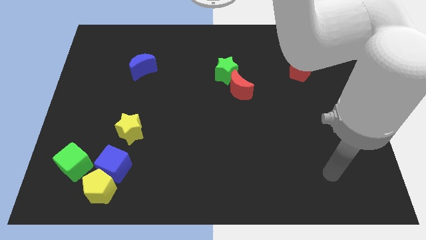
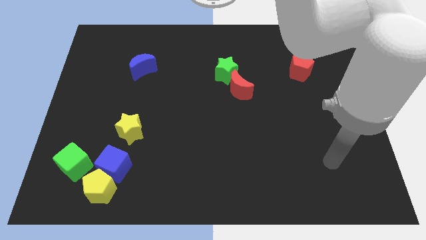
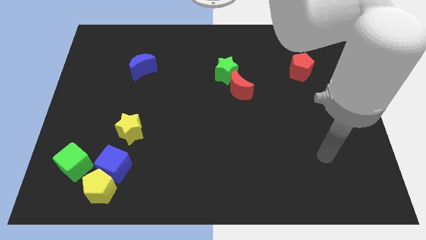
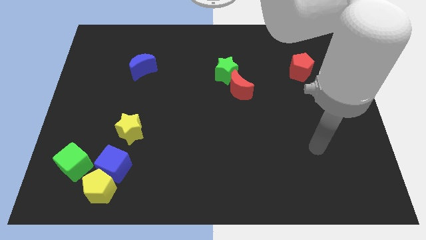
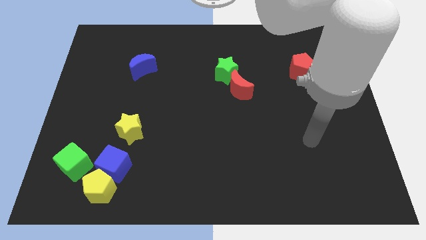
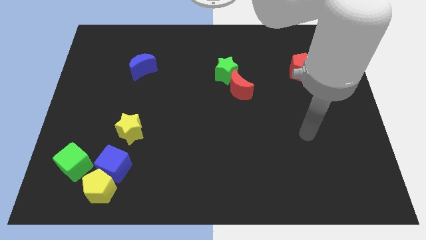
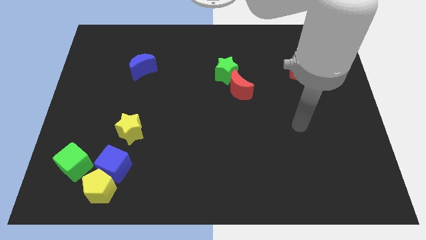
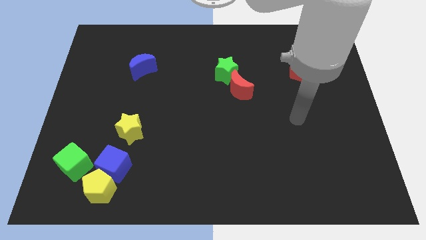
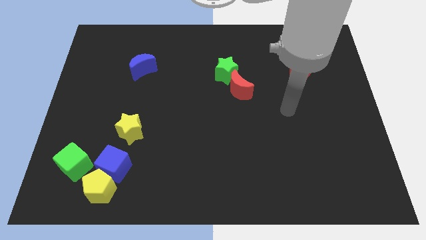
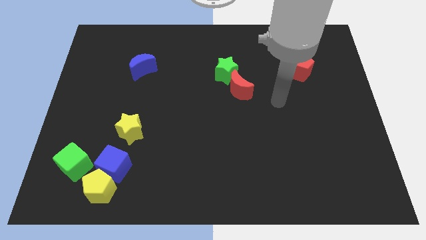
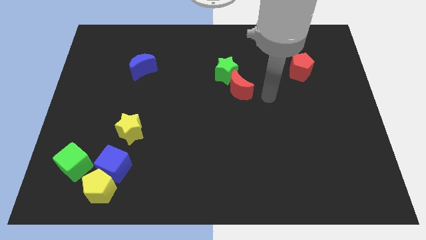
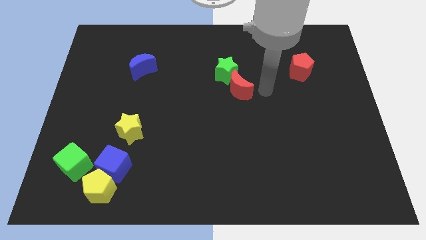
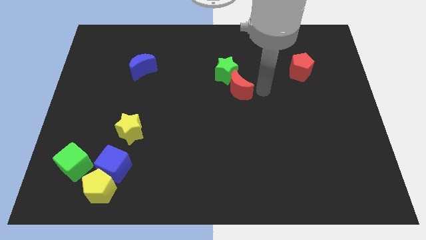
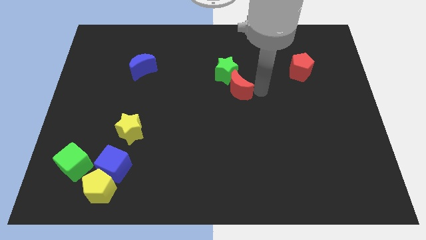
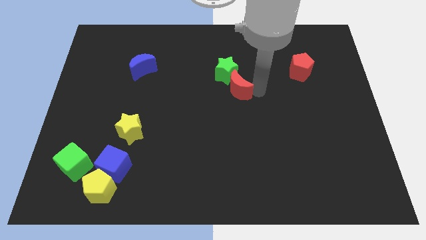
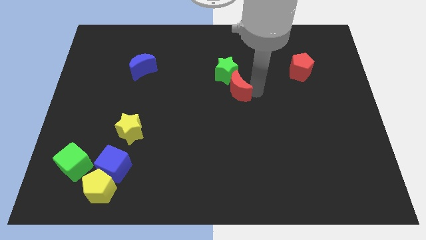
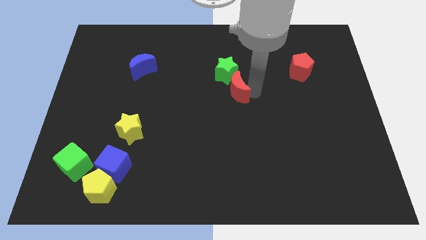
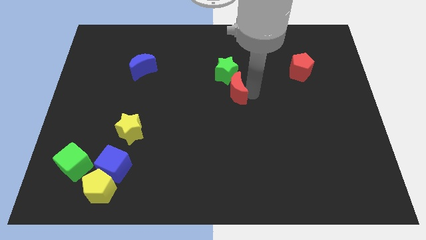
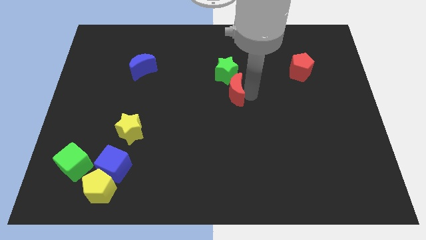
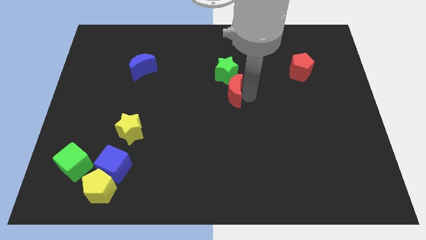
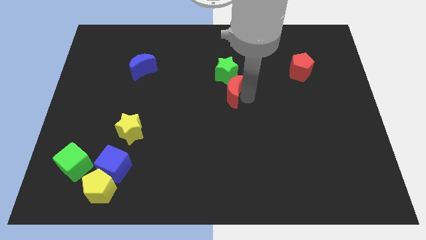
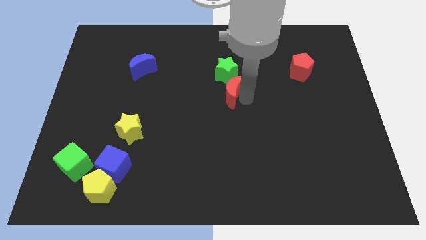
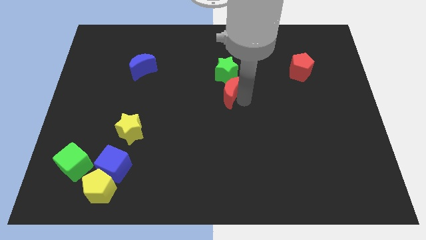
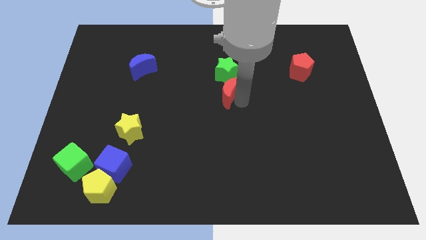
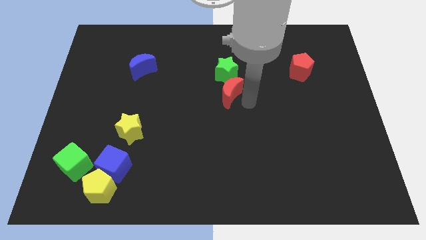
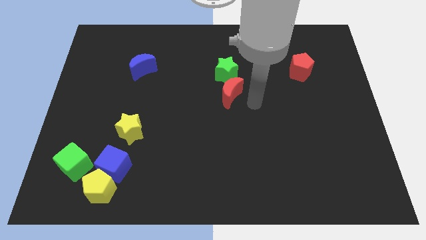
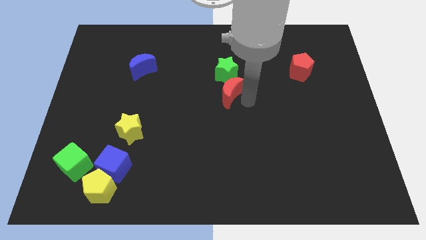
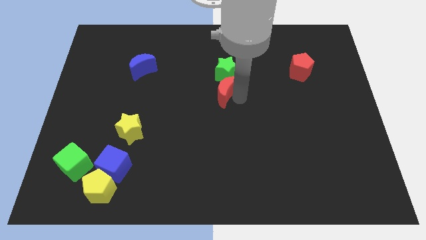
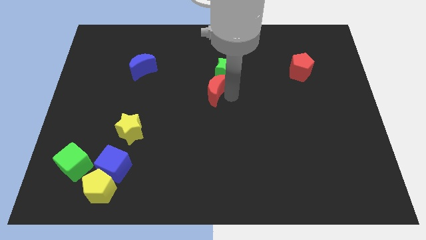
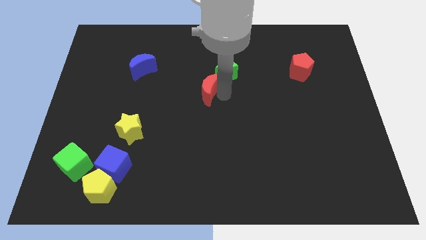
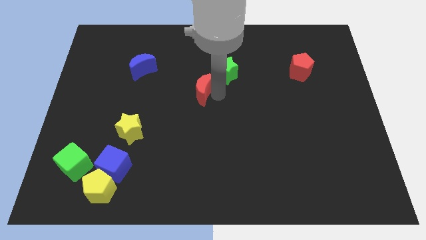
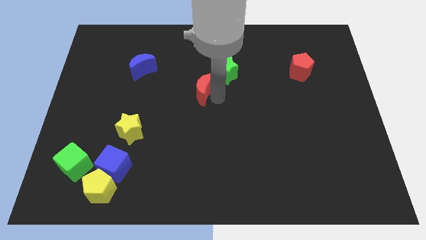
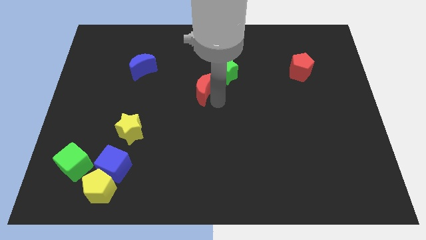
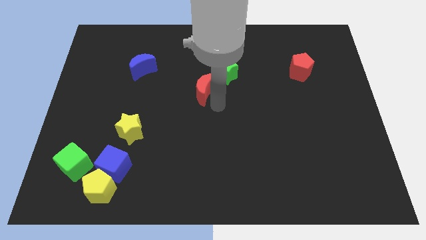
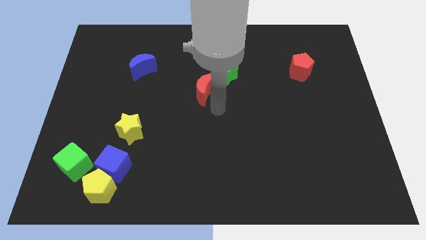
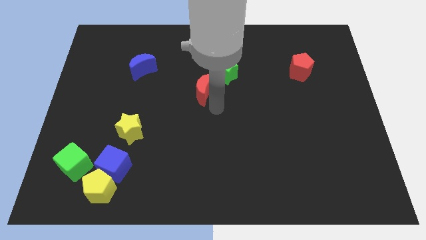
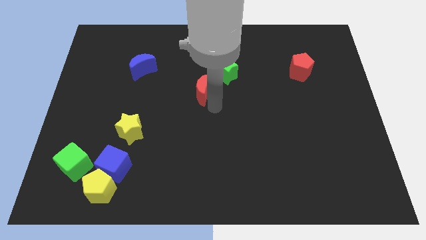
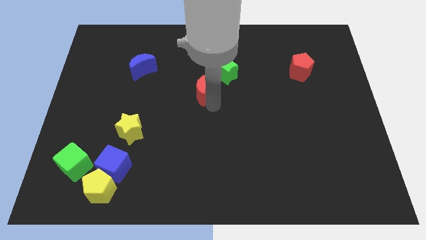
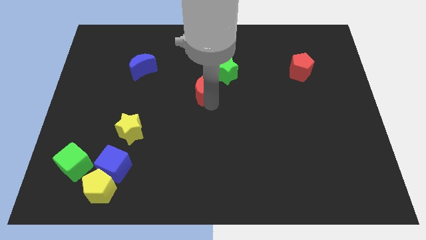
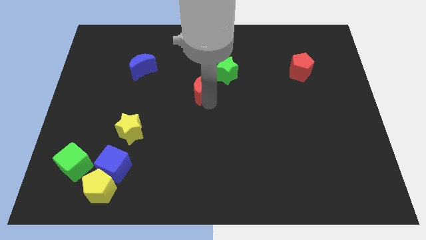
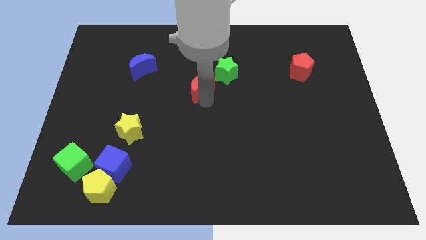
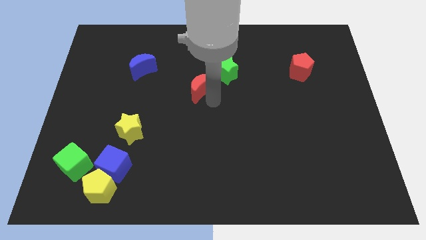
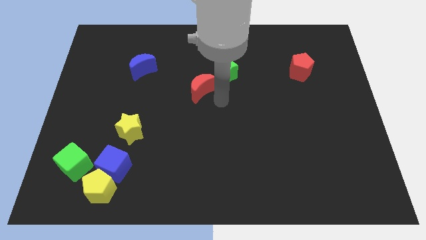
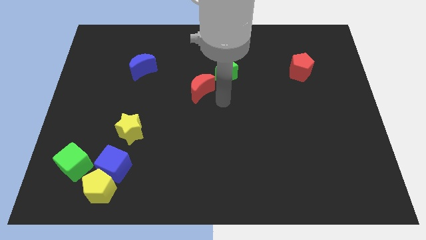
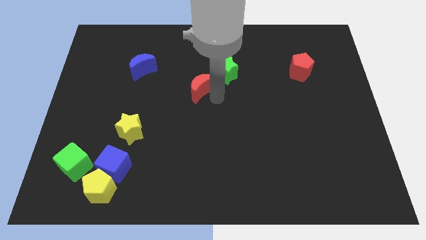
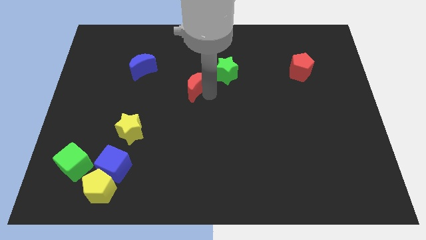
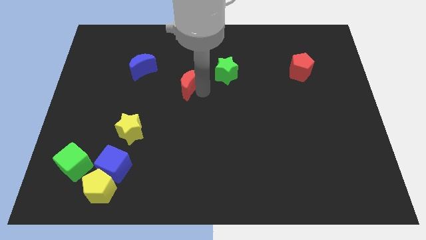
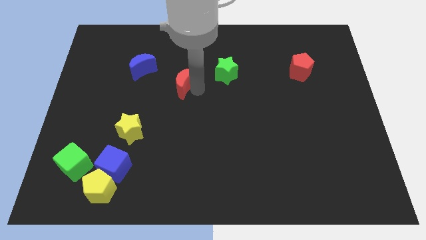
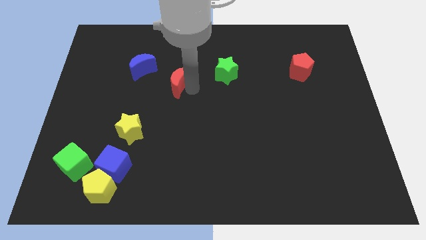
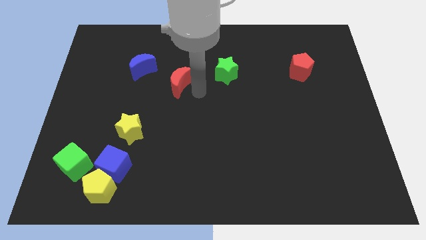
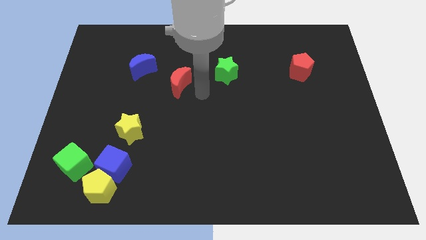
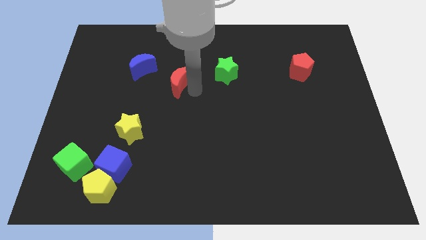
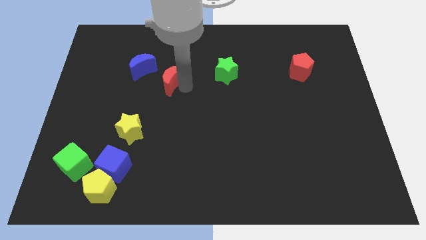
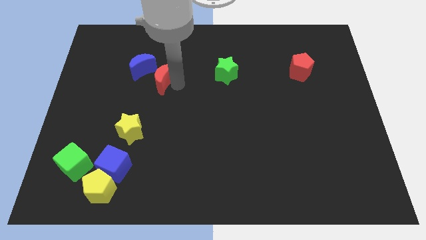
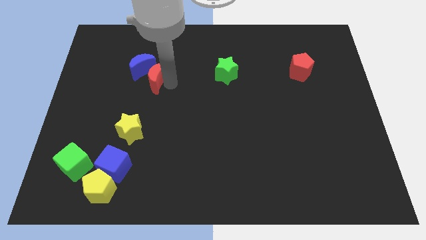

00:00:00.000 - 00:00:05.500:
slide the red moon towards the blue moon

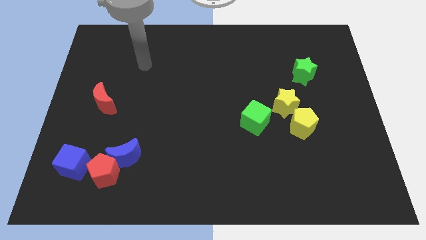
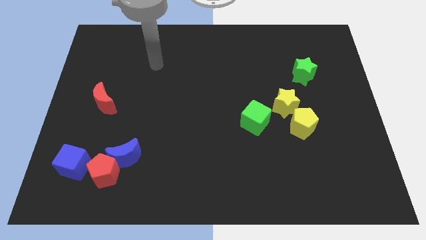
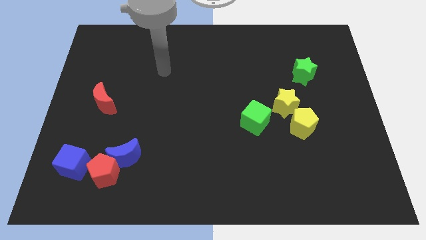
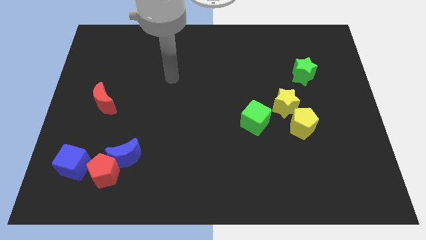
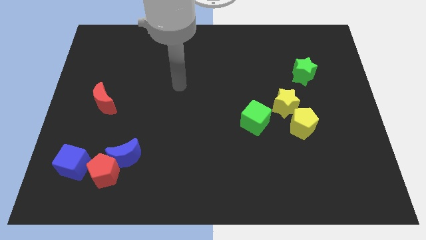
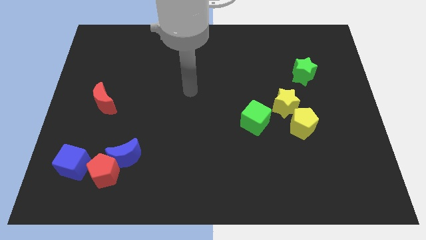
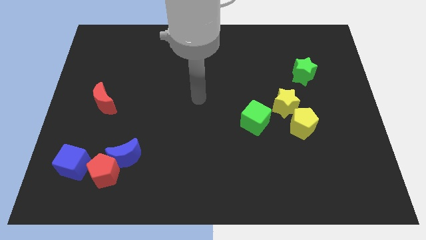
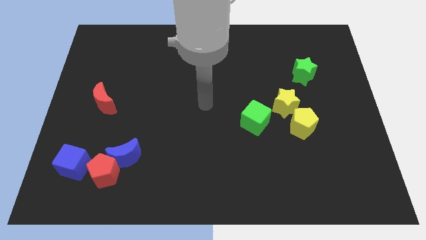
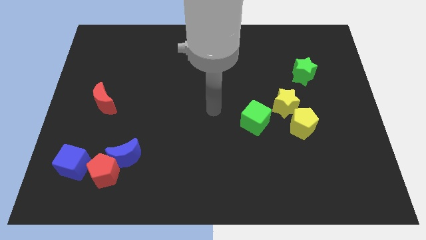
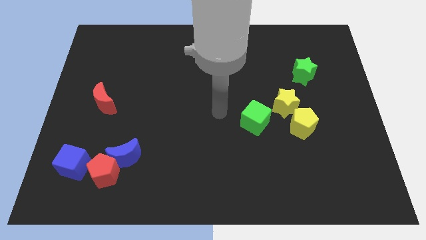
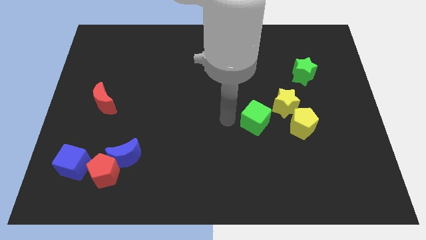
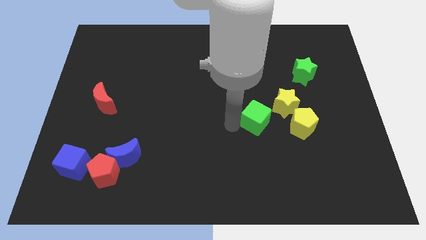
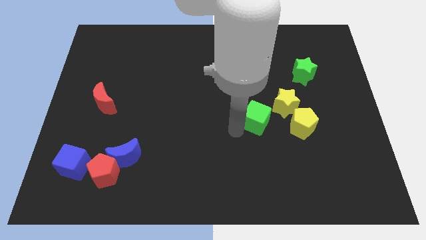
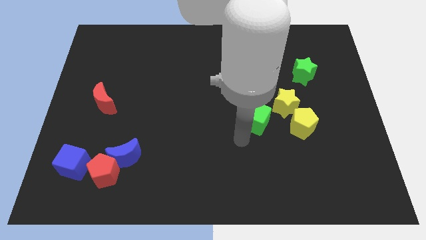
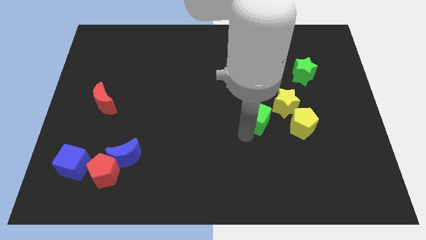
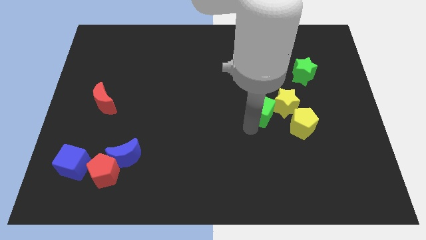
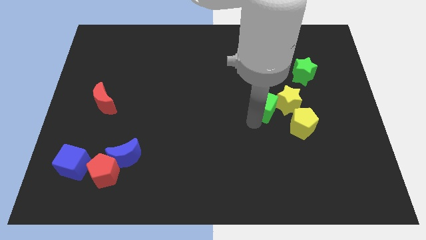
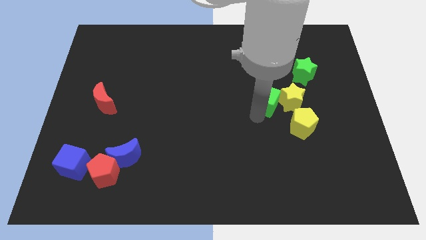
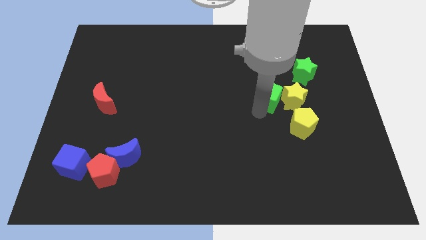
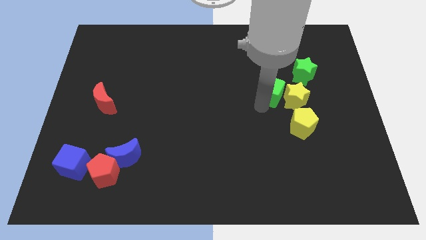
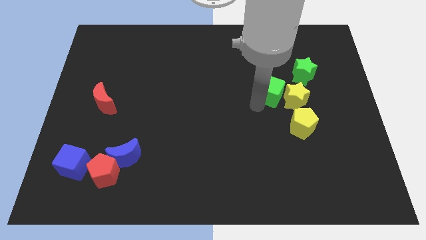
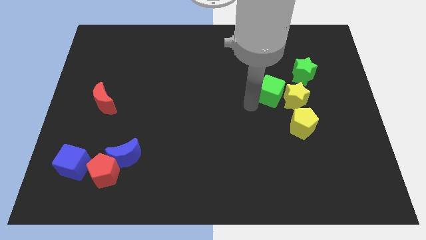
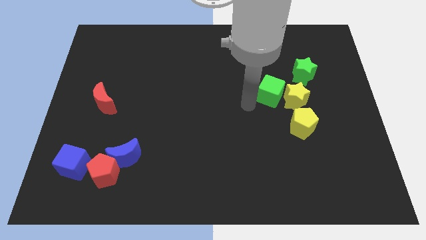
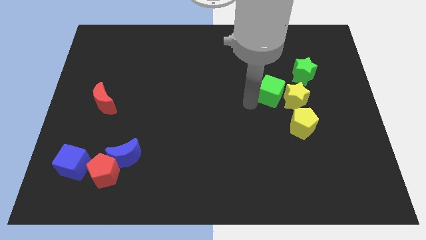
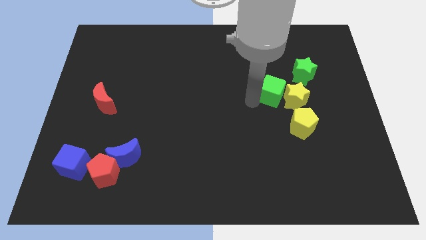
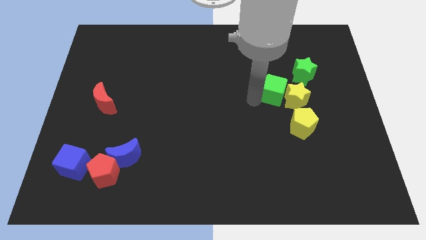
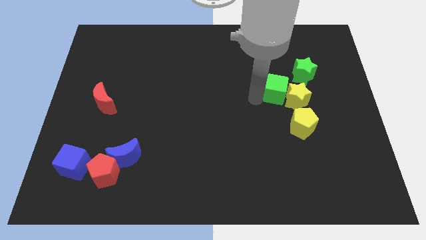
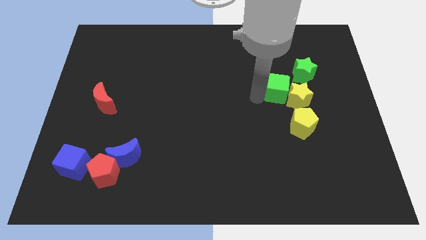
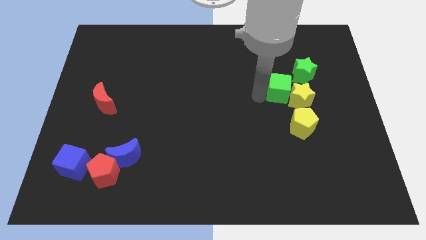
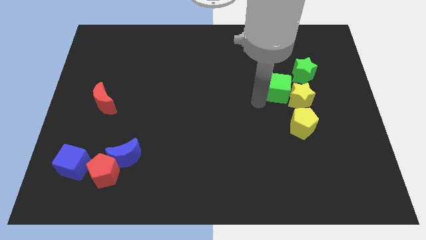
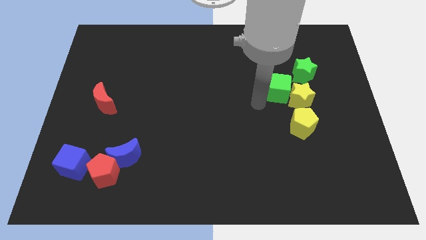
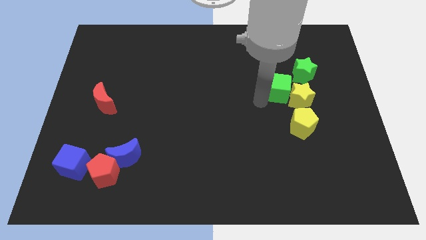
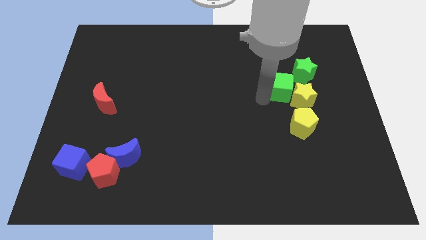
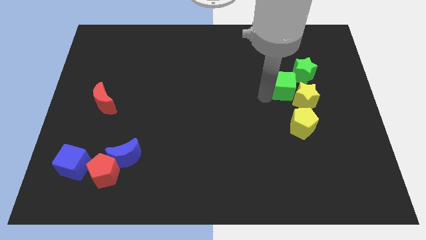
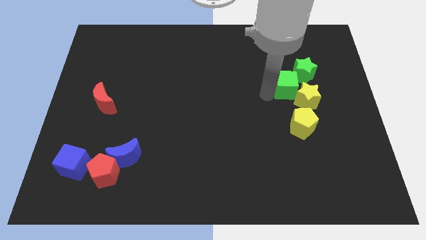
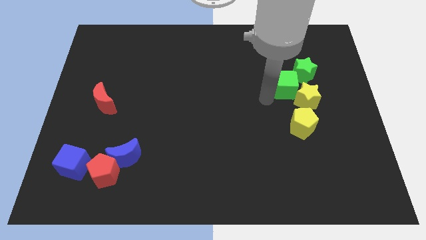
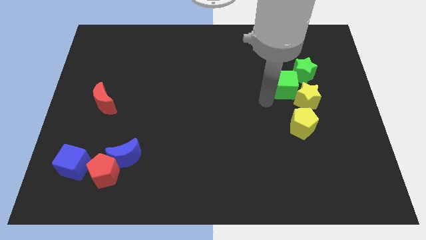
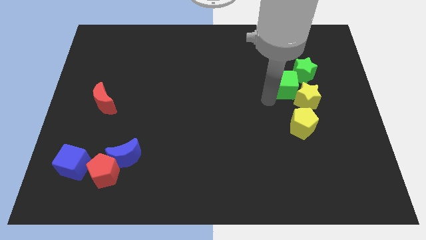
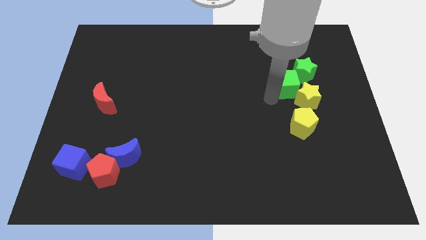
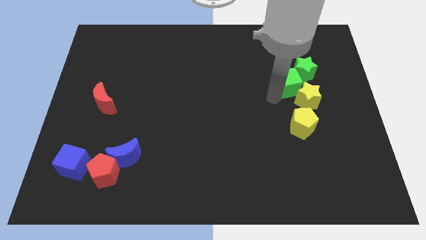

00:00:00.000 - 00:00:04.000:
slide the green cube next to the green star
